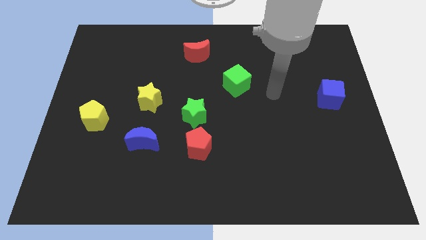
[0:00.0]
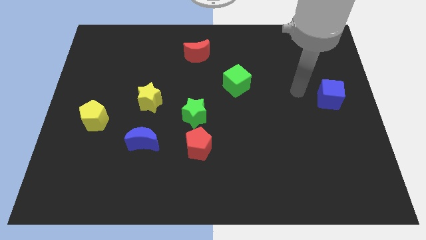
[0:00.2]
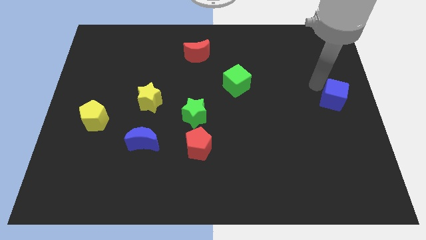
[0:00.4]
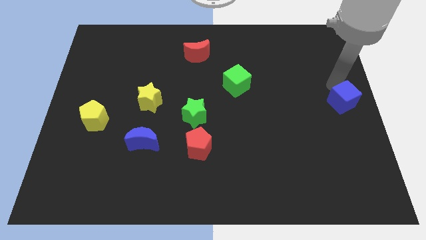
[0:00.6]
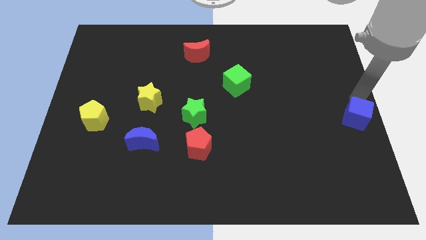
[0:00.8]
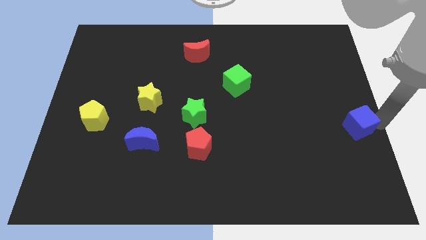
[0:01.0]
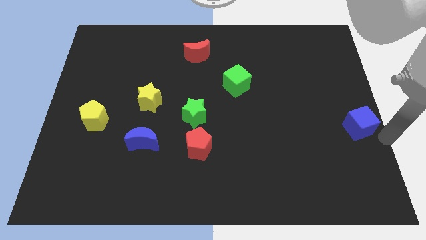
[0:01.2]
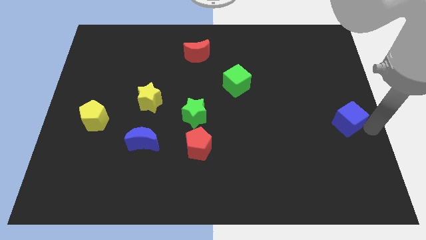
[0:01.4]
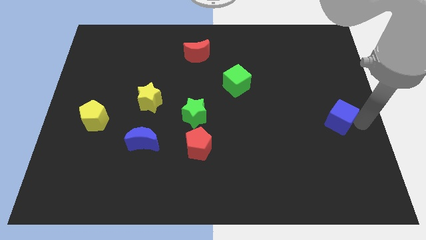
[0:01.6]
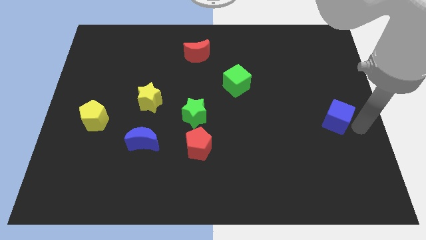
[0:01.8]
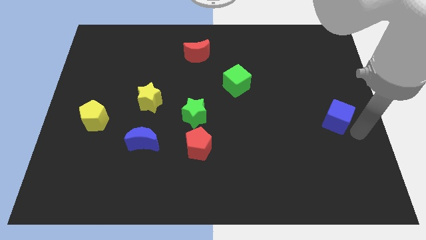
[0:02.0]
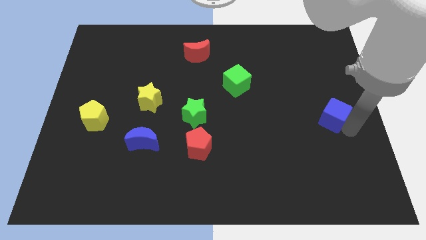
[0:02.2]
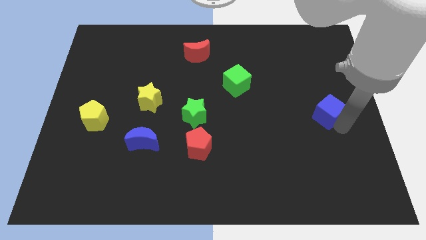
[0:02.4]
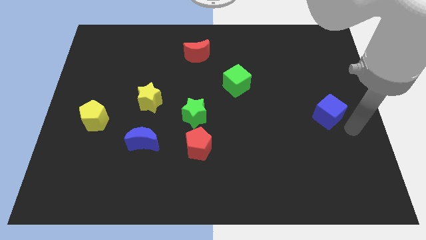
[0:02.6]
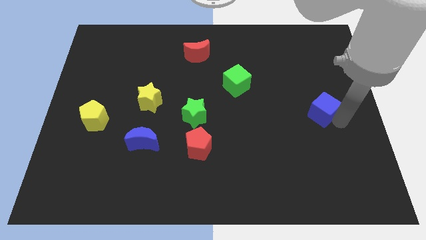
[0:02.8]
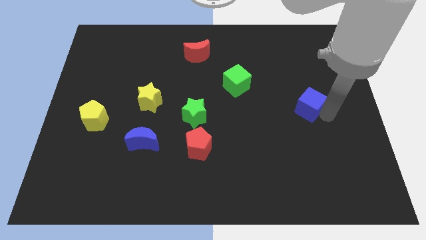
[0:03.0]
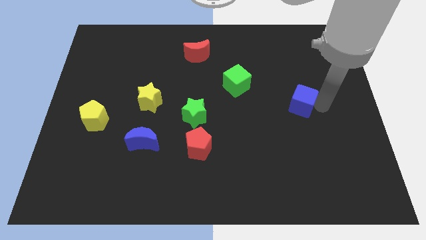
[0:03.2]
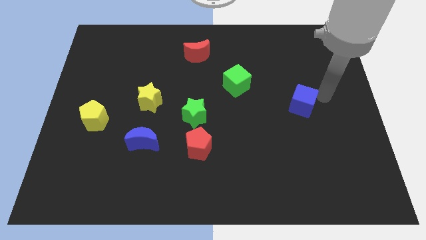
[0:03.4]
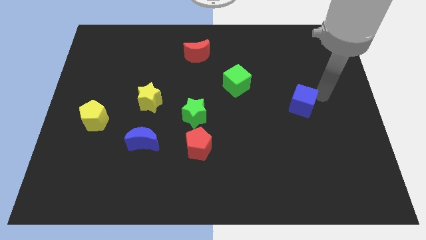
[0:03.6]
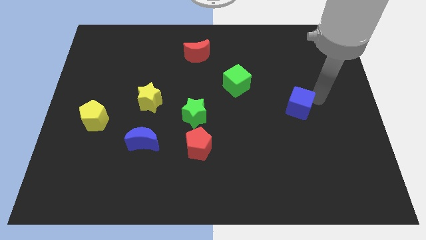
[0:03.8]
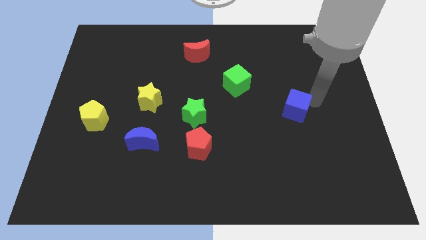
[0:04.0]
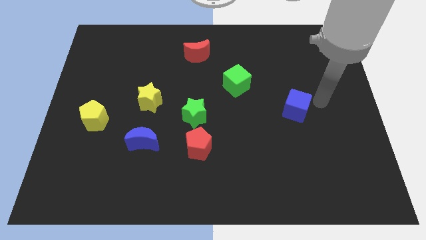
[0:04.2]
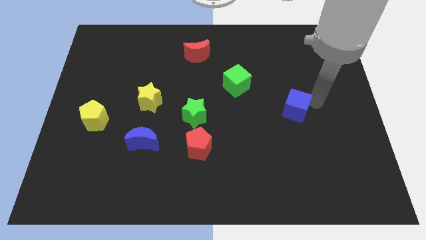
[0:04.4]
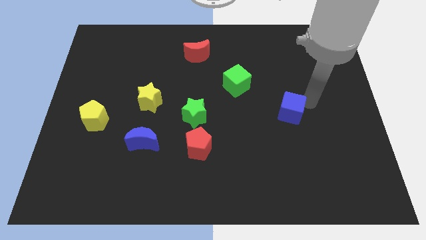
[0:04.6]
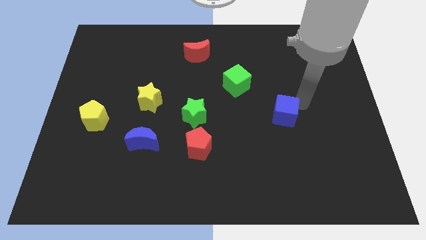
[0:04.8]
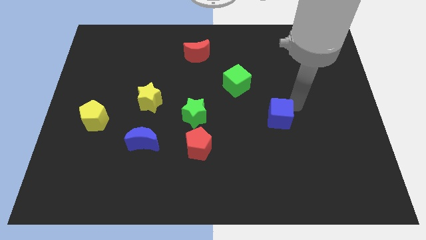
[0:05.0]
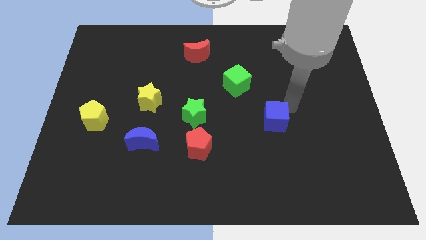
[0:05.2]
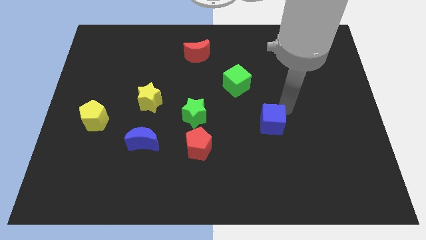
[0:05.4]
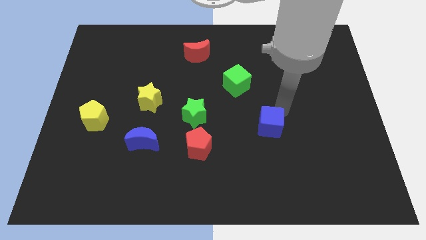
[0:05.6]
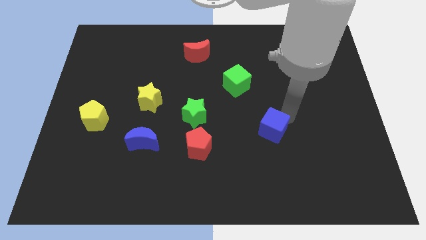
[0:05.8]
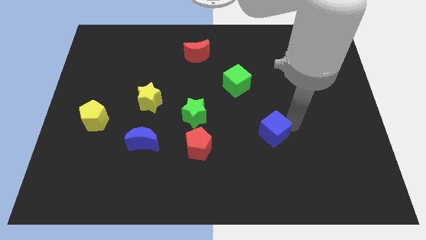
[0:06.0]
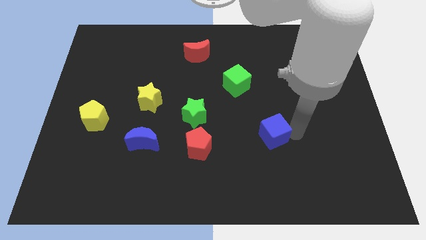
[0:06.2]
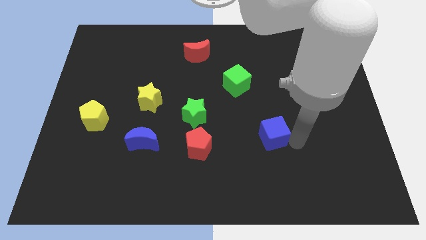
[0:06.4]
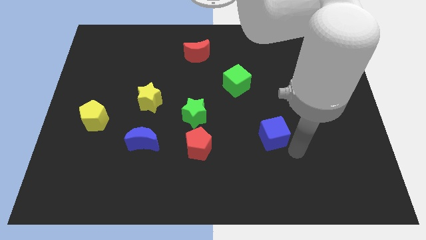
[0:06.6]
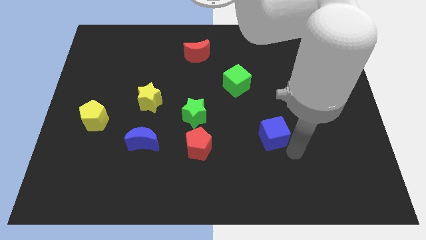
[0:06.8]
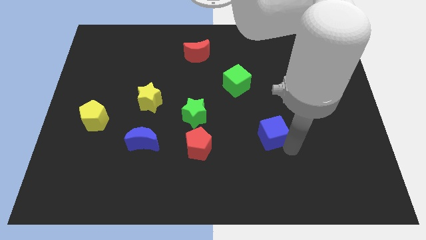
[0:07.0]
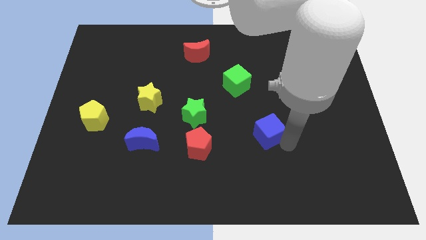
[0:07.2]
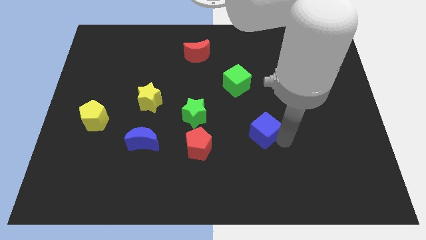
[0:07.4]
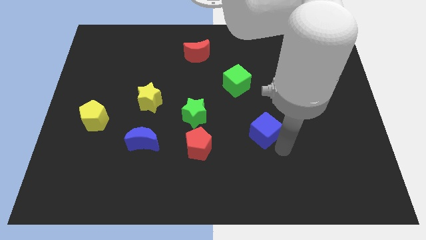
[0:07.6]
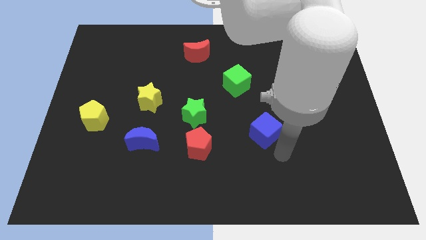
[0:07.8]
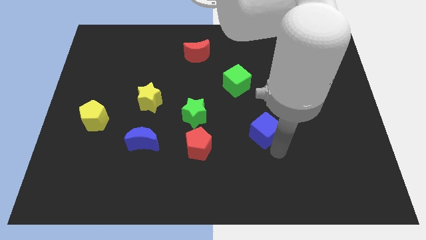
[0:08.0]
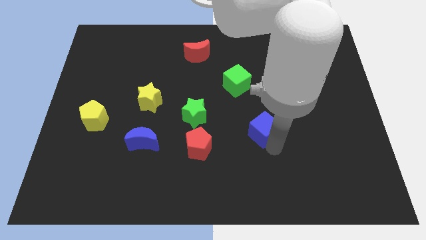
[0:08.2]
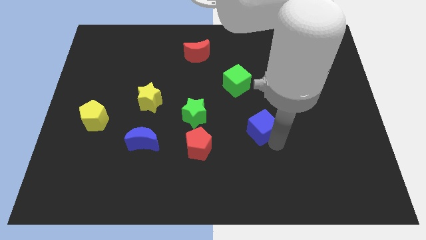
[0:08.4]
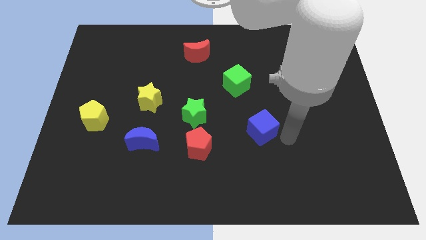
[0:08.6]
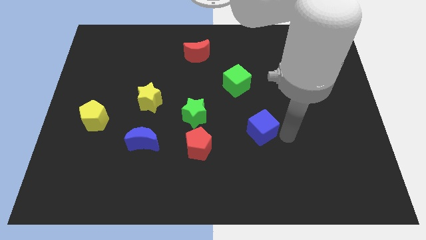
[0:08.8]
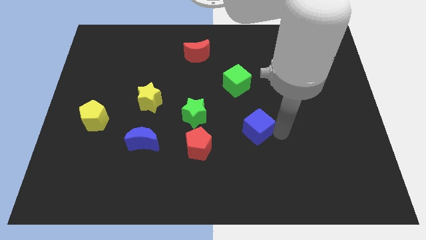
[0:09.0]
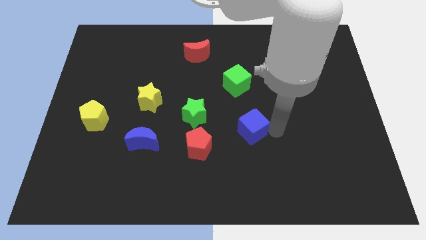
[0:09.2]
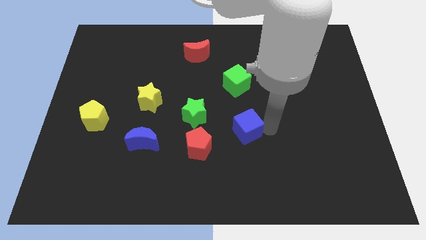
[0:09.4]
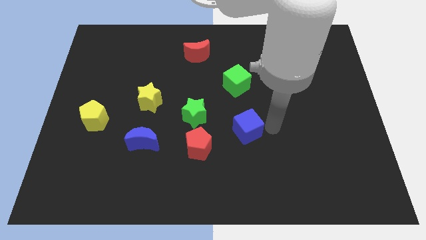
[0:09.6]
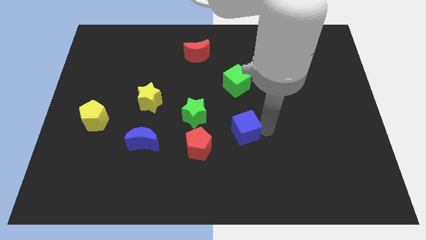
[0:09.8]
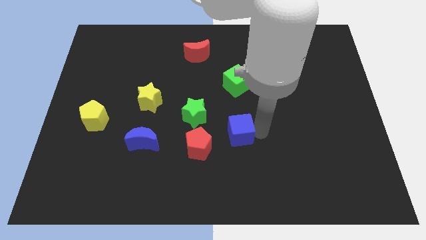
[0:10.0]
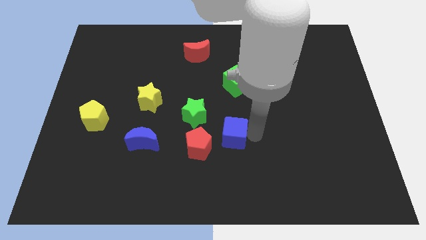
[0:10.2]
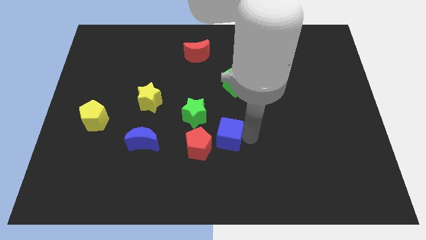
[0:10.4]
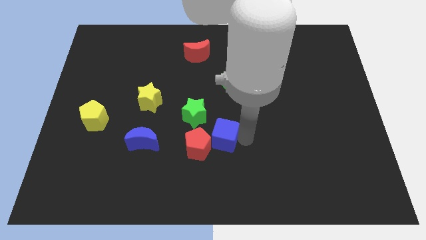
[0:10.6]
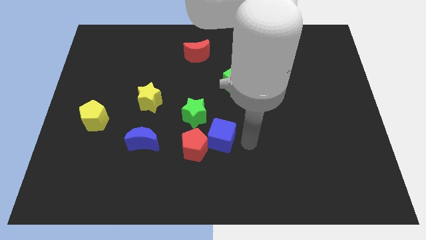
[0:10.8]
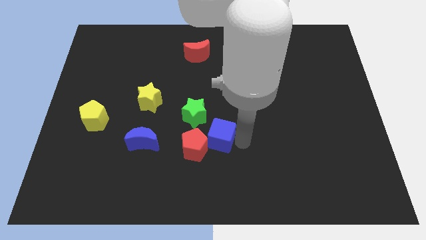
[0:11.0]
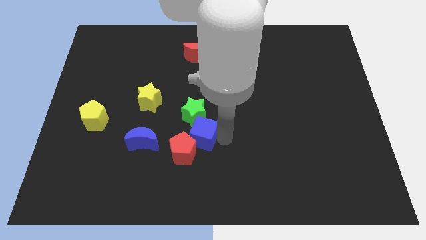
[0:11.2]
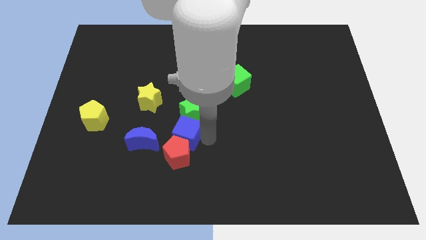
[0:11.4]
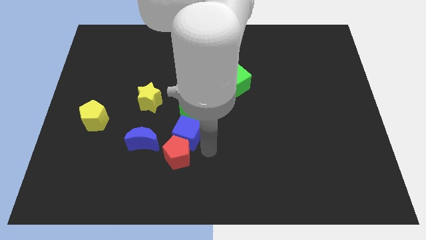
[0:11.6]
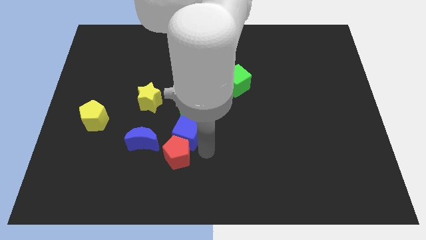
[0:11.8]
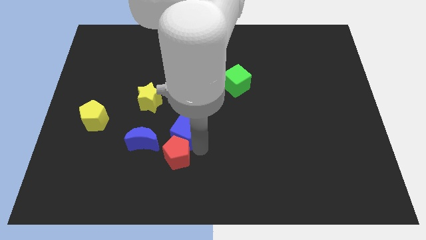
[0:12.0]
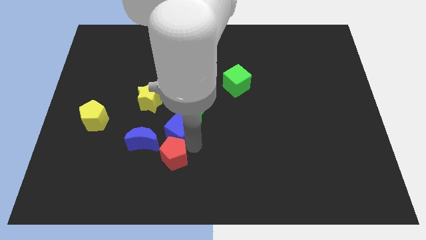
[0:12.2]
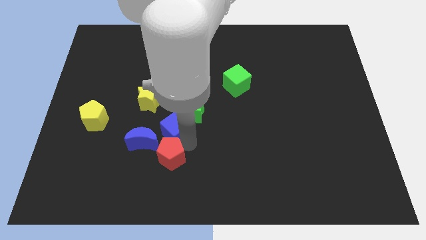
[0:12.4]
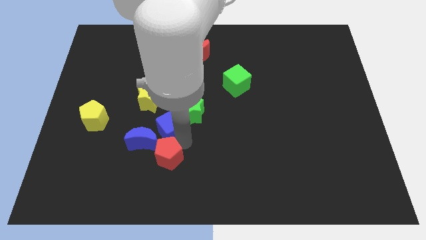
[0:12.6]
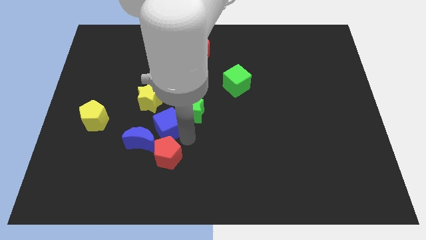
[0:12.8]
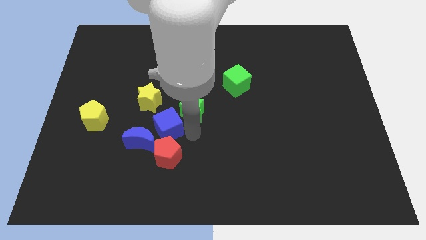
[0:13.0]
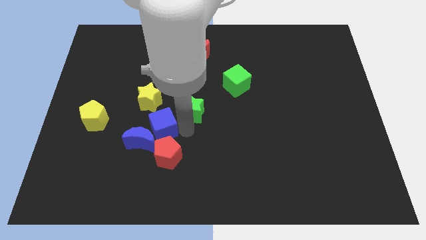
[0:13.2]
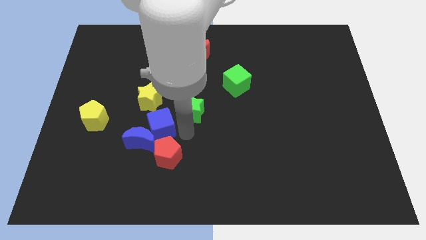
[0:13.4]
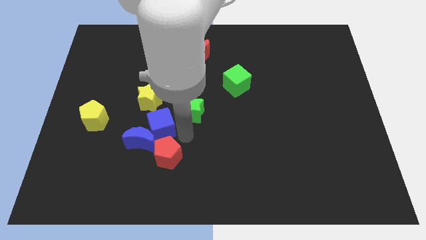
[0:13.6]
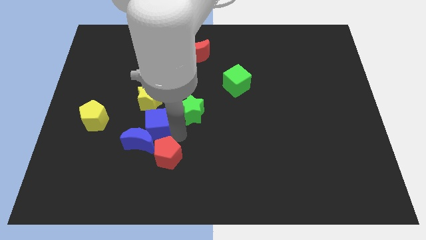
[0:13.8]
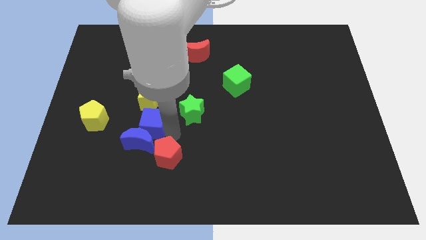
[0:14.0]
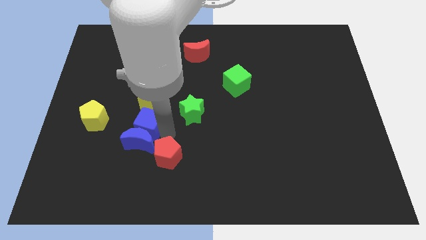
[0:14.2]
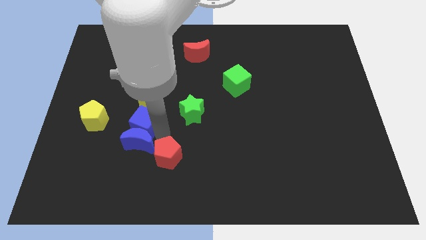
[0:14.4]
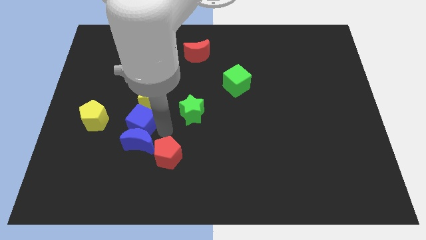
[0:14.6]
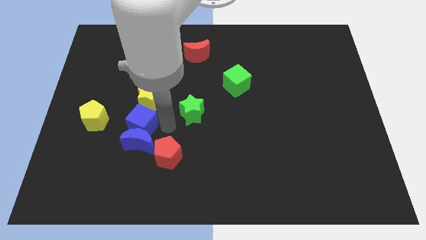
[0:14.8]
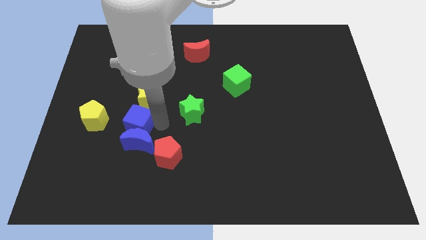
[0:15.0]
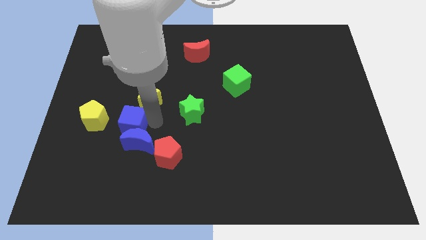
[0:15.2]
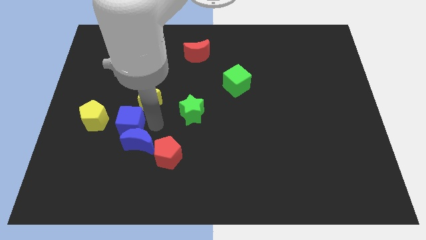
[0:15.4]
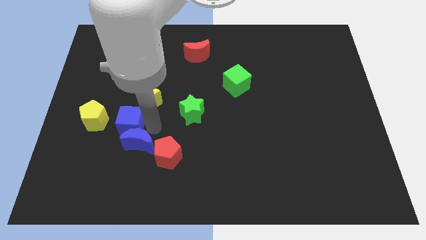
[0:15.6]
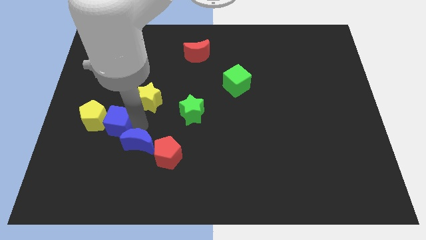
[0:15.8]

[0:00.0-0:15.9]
move the blue cube next to the yellow pentagon
